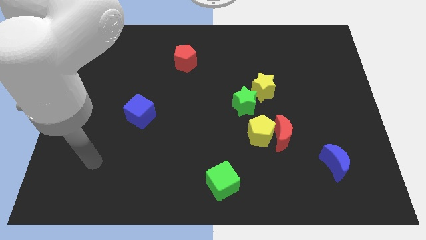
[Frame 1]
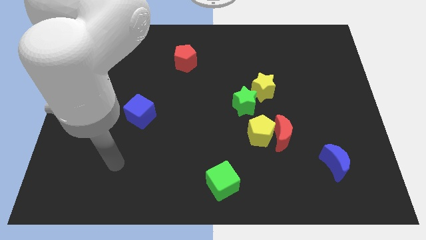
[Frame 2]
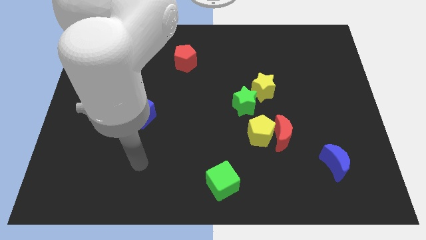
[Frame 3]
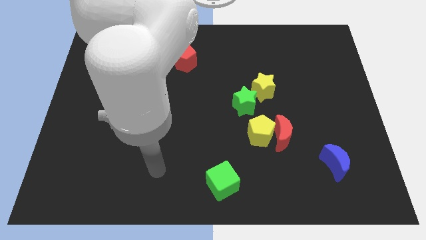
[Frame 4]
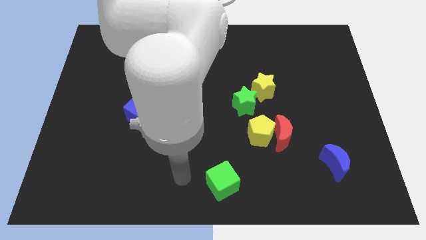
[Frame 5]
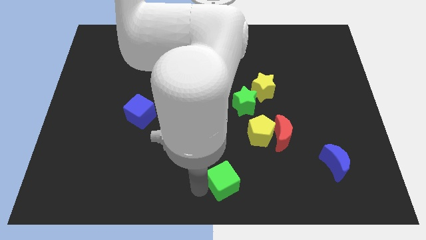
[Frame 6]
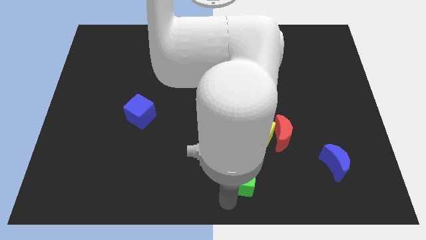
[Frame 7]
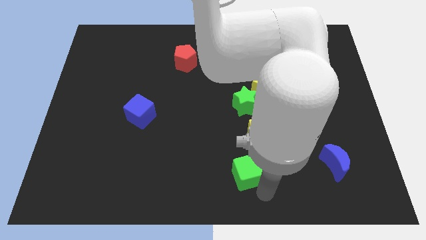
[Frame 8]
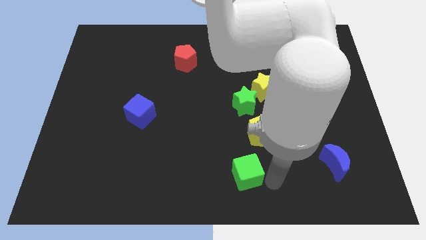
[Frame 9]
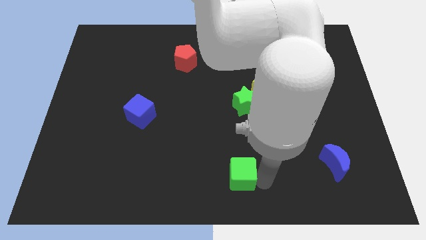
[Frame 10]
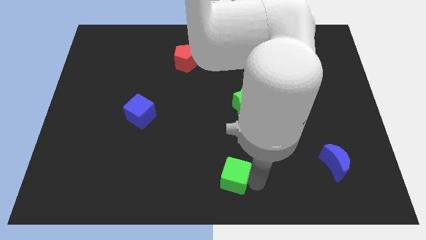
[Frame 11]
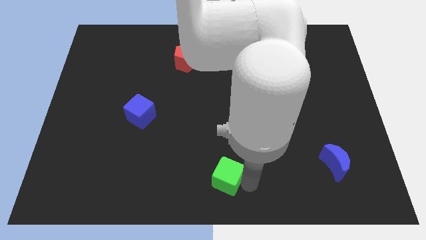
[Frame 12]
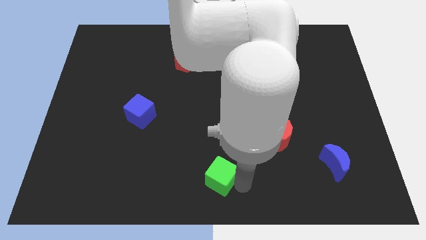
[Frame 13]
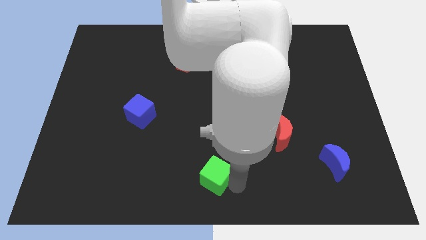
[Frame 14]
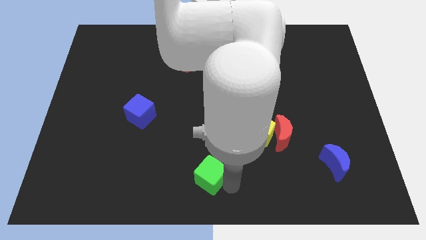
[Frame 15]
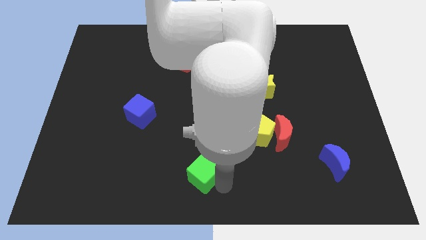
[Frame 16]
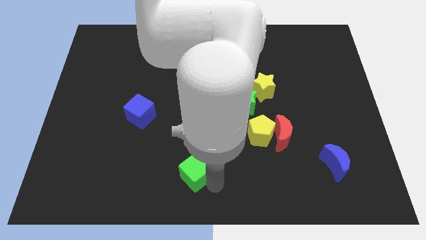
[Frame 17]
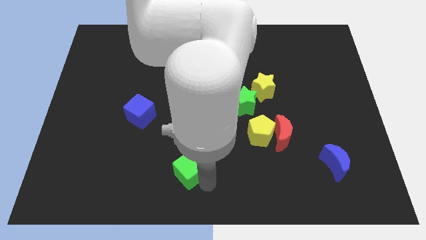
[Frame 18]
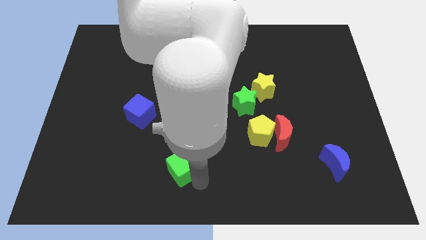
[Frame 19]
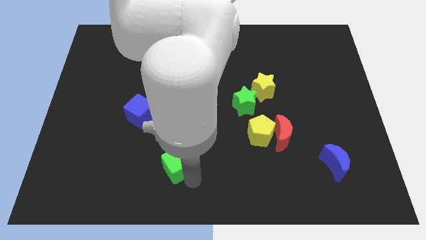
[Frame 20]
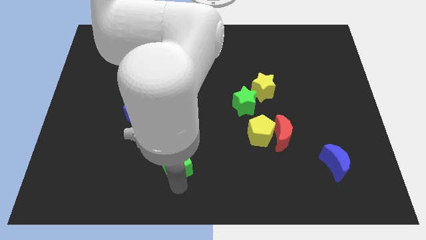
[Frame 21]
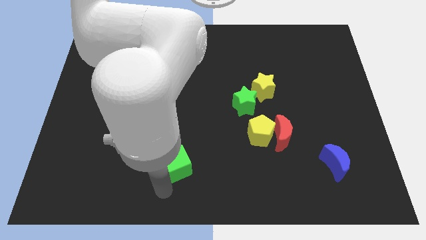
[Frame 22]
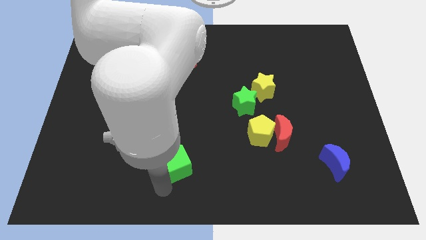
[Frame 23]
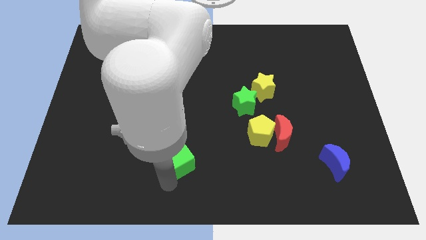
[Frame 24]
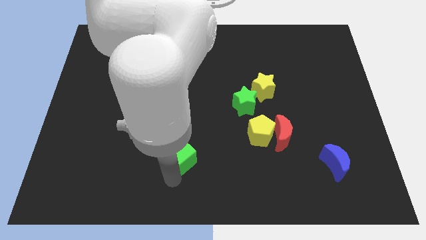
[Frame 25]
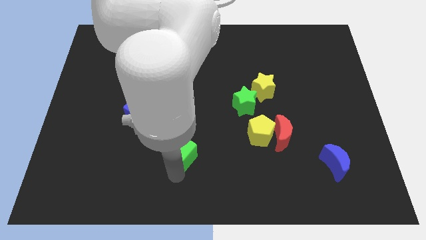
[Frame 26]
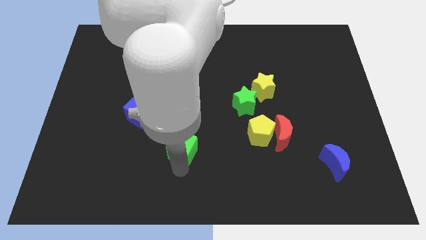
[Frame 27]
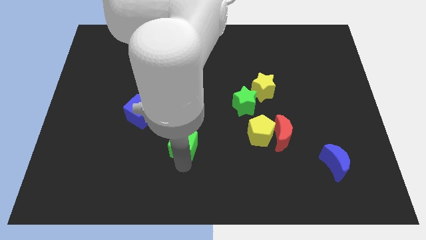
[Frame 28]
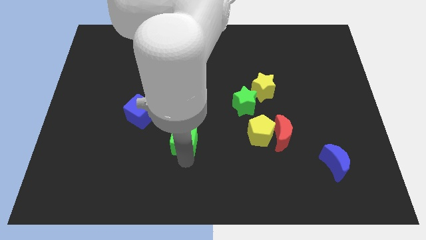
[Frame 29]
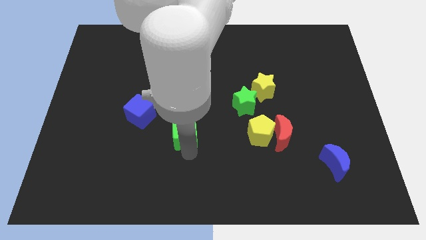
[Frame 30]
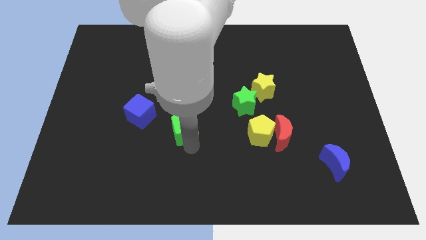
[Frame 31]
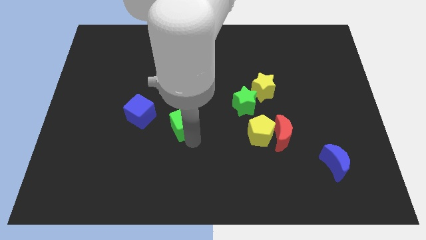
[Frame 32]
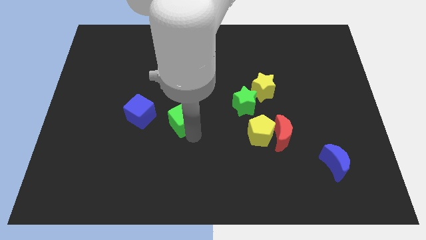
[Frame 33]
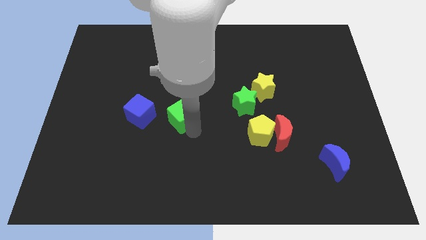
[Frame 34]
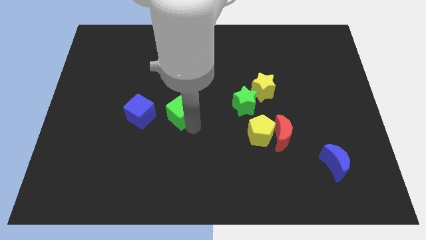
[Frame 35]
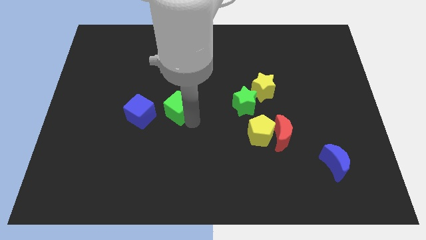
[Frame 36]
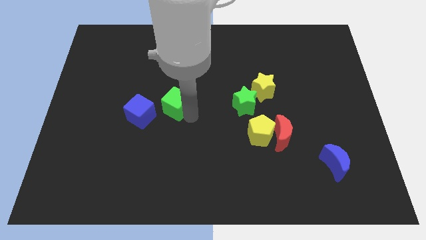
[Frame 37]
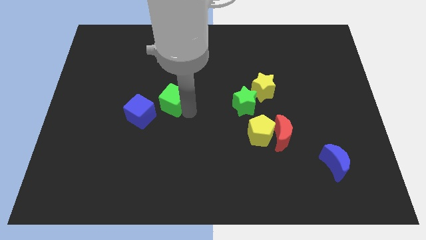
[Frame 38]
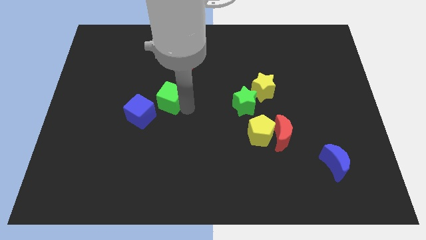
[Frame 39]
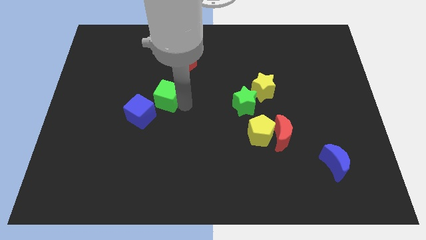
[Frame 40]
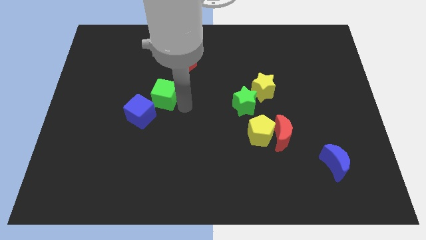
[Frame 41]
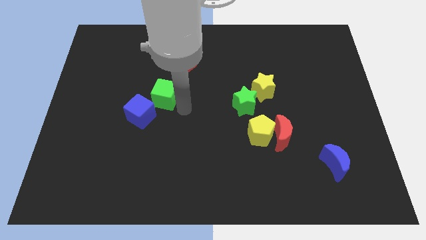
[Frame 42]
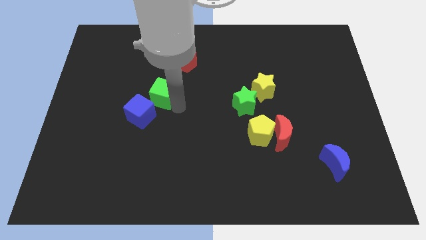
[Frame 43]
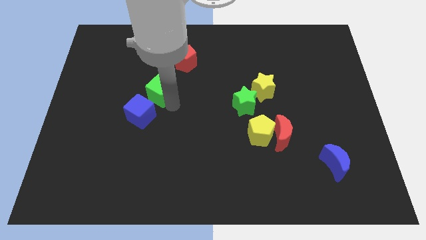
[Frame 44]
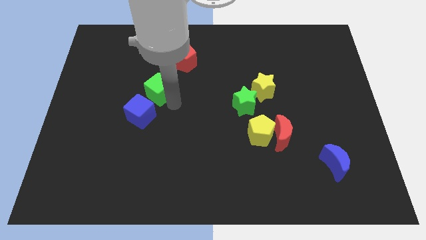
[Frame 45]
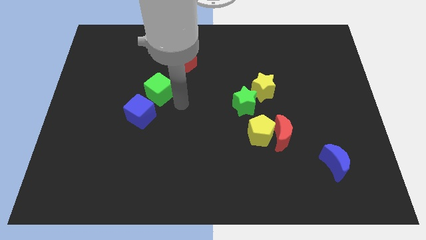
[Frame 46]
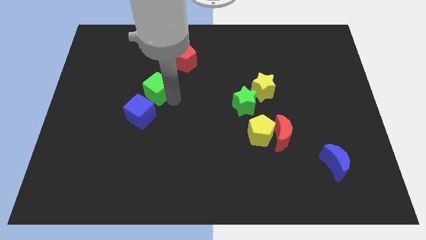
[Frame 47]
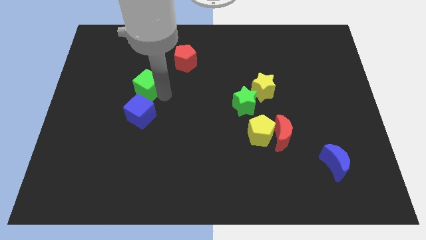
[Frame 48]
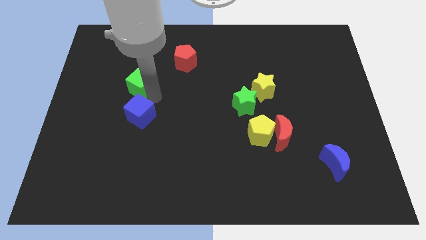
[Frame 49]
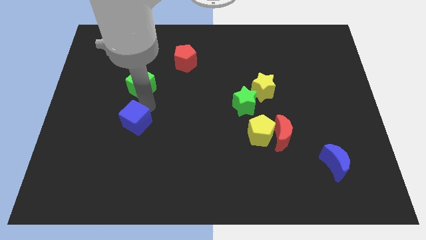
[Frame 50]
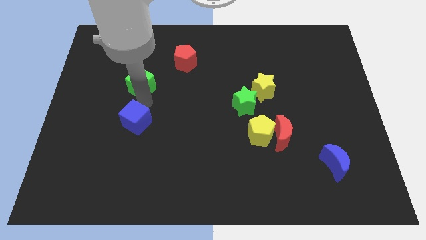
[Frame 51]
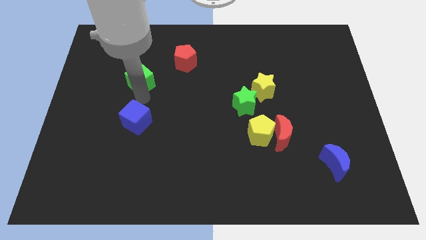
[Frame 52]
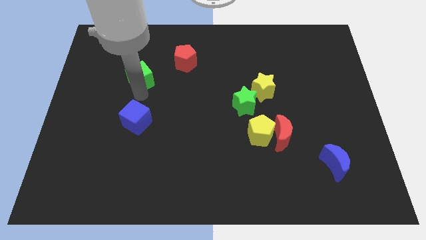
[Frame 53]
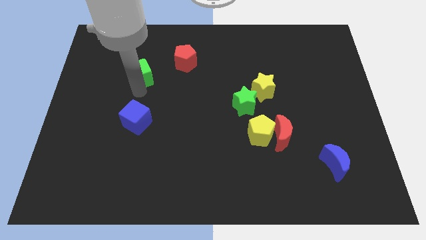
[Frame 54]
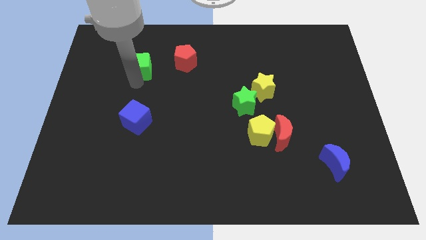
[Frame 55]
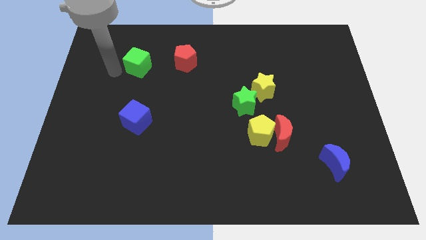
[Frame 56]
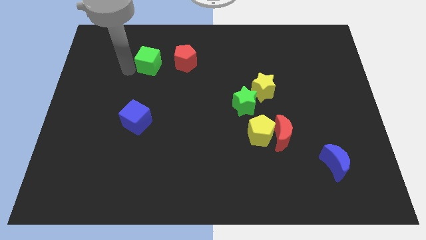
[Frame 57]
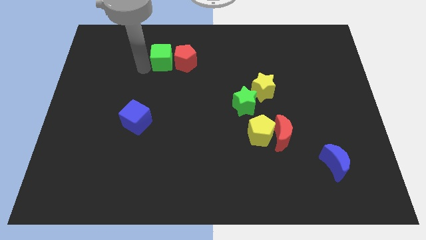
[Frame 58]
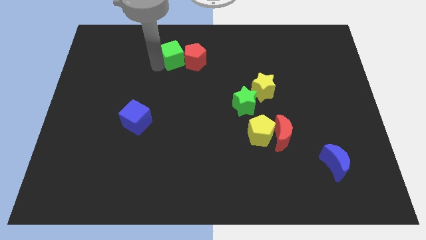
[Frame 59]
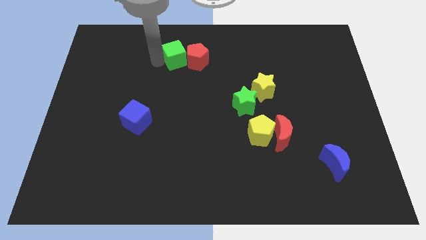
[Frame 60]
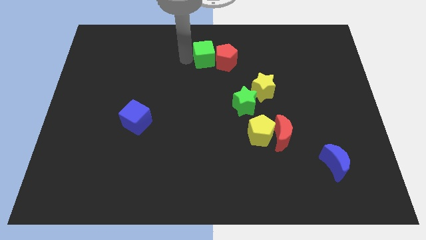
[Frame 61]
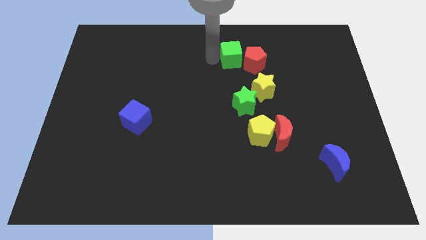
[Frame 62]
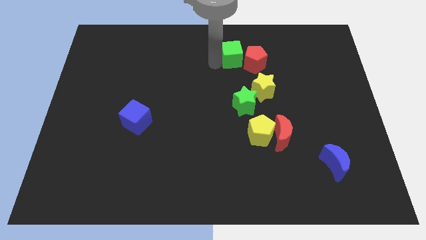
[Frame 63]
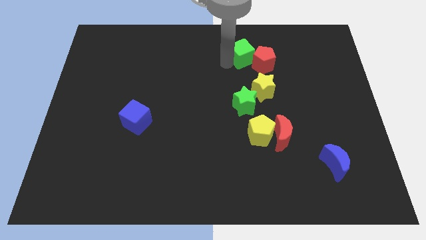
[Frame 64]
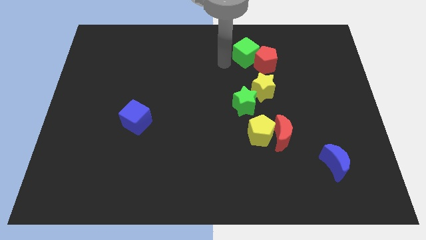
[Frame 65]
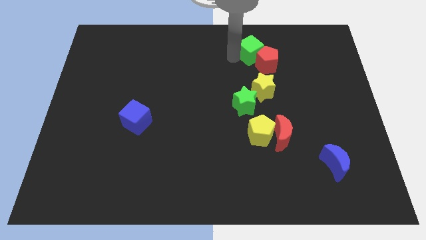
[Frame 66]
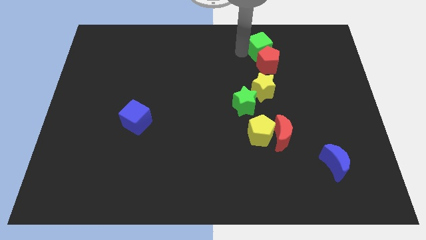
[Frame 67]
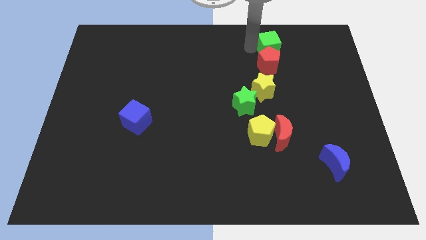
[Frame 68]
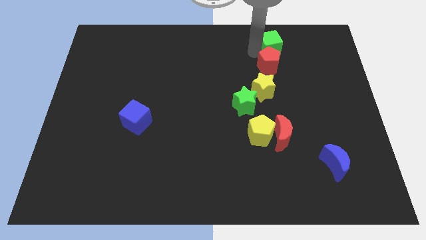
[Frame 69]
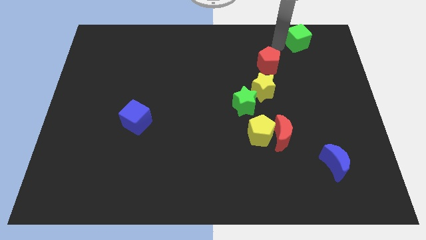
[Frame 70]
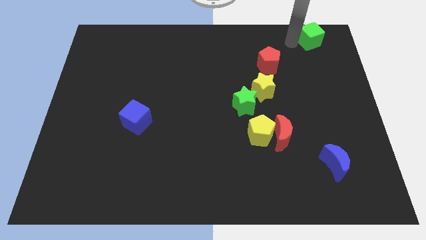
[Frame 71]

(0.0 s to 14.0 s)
put the green cube to the top right corner
